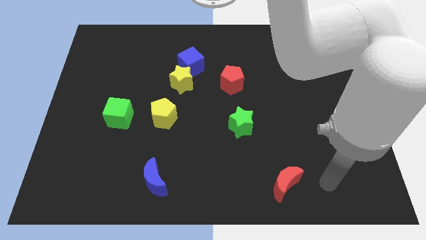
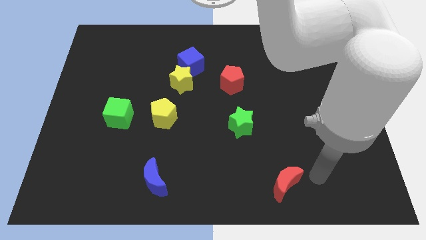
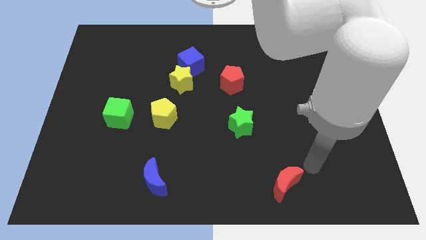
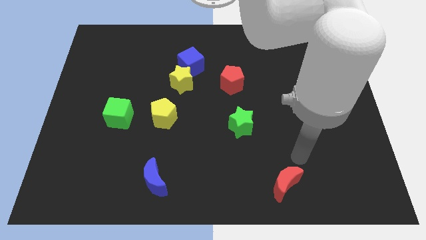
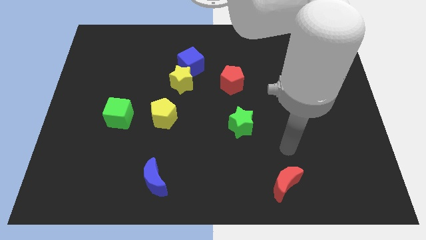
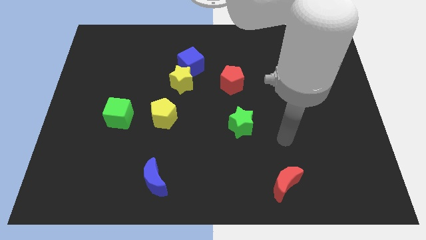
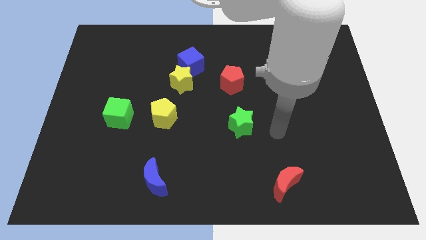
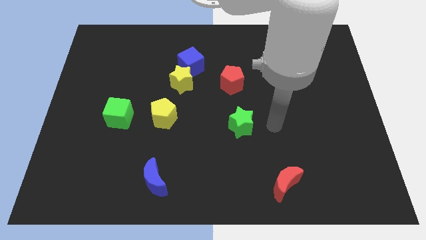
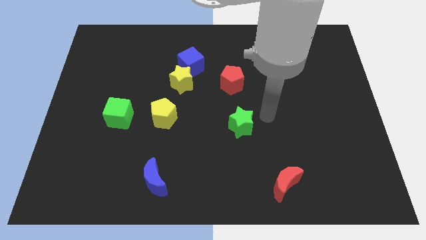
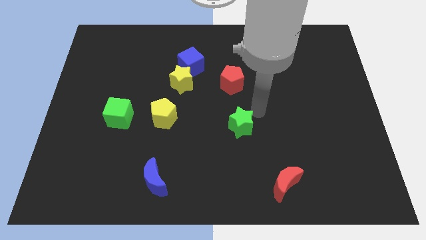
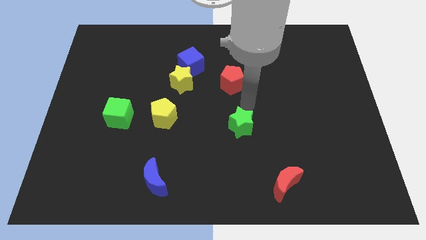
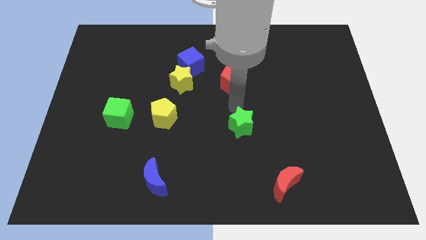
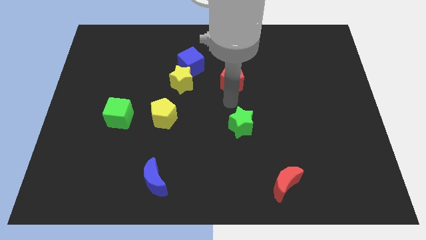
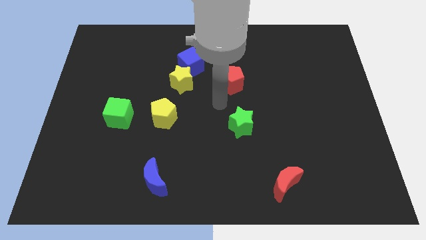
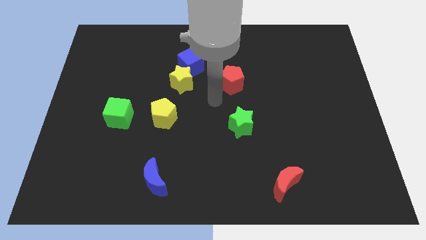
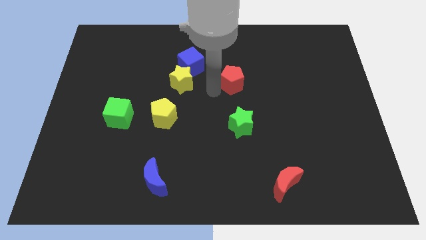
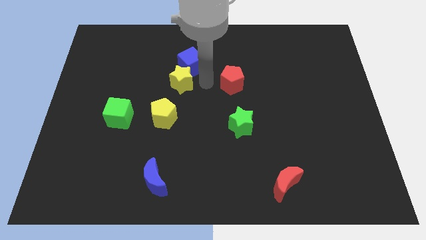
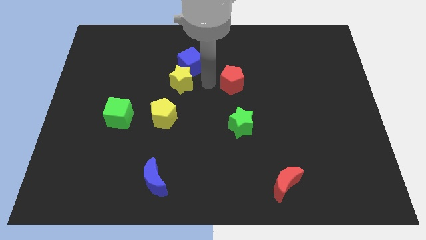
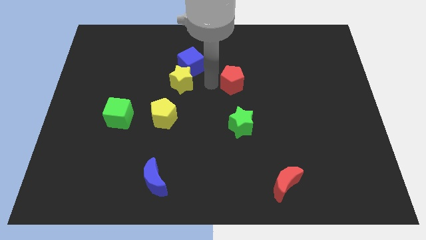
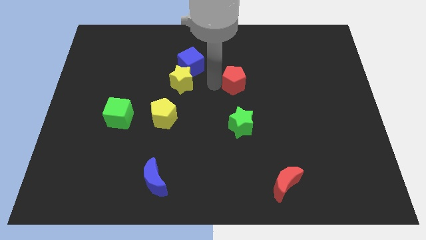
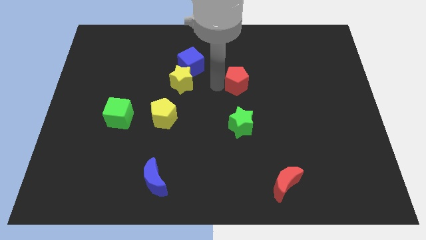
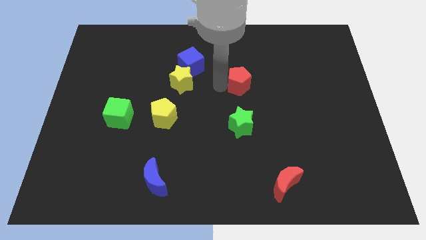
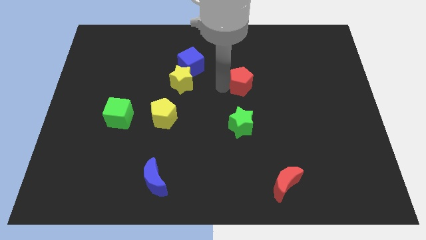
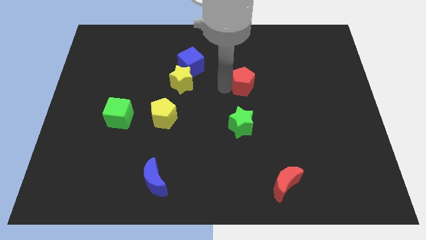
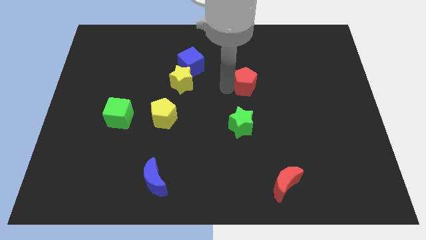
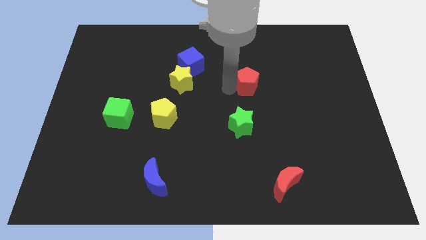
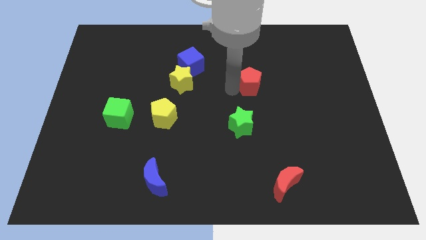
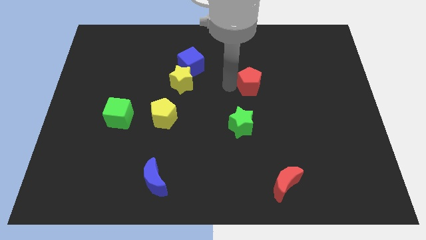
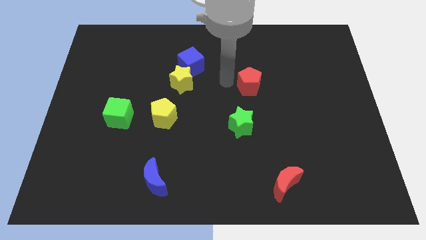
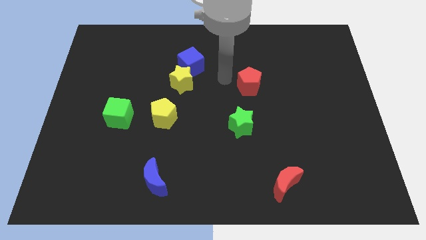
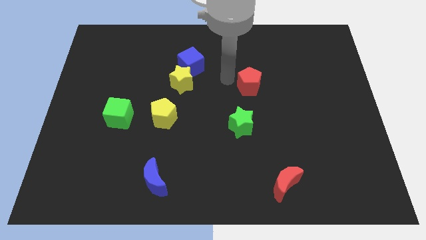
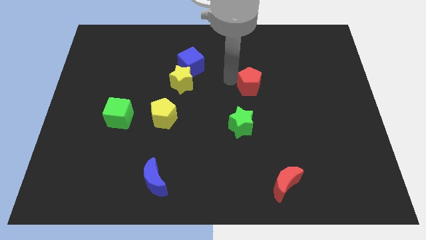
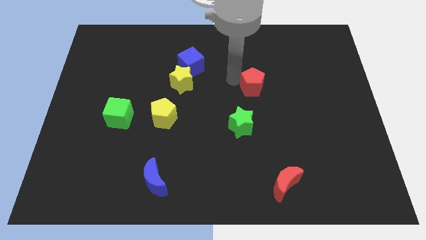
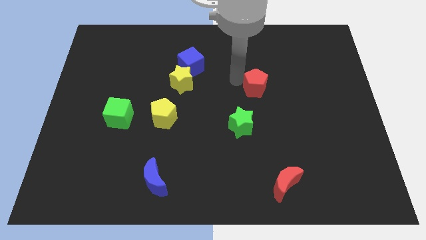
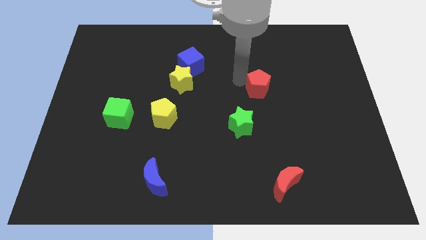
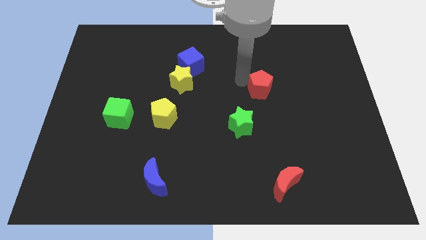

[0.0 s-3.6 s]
move the red pentagon right a bit

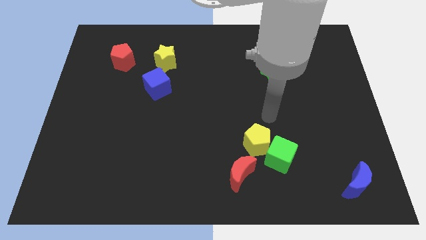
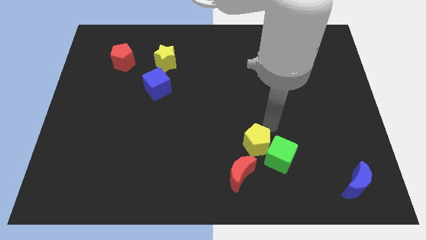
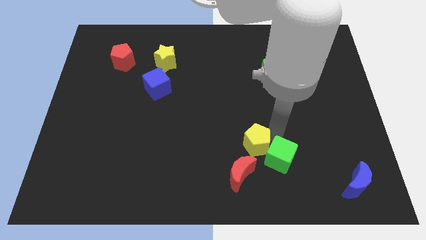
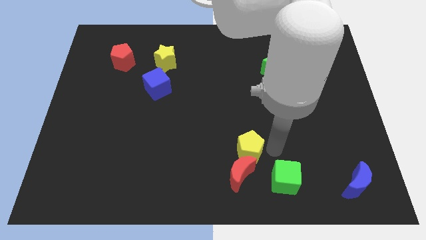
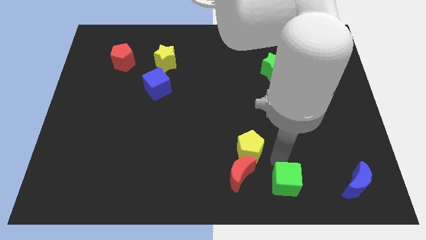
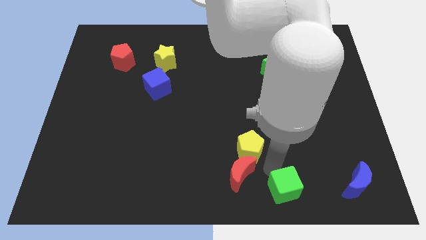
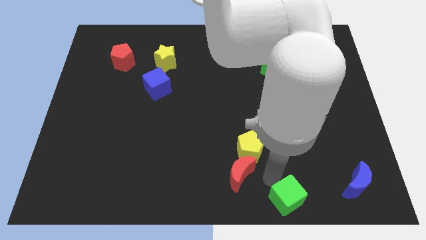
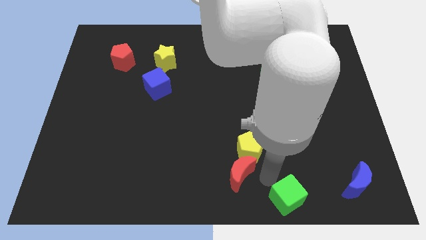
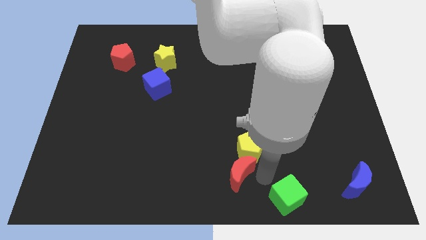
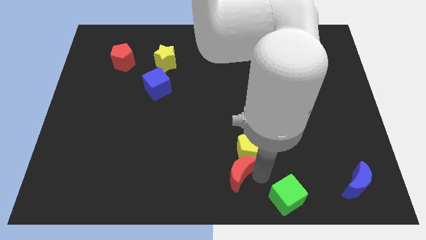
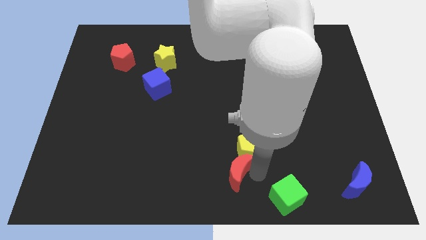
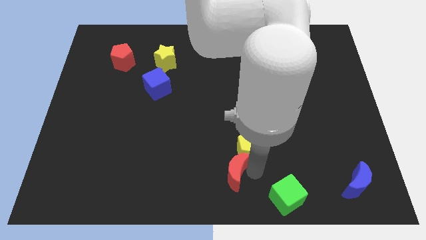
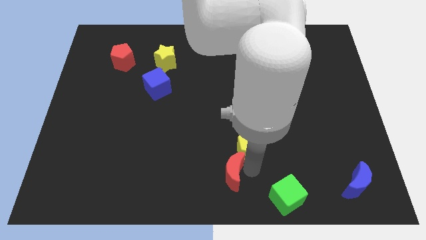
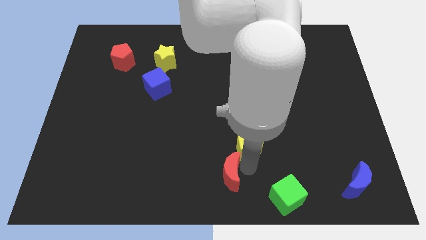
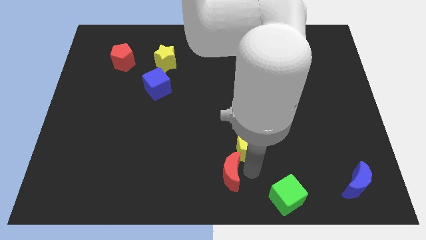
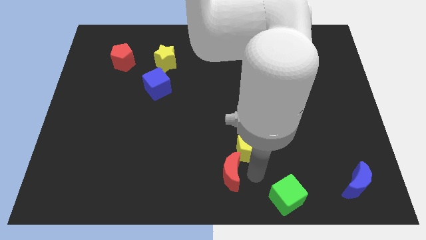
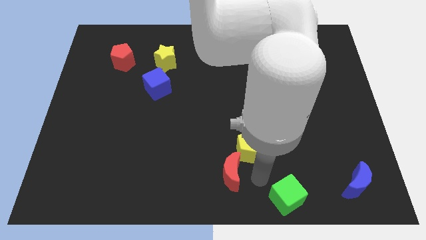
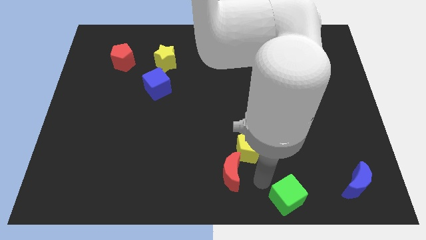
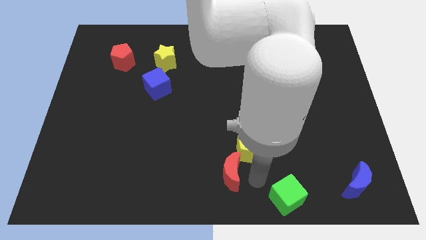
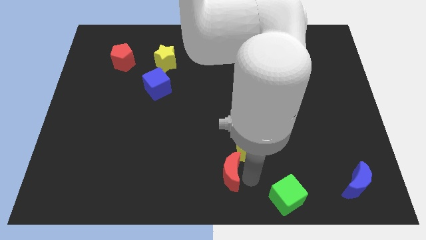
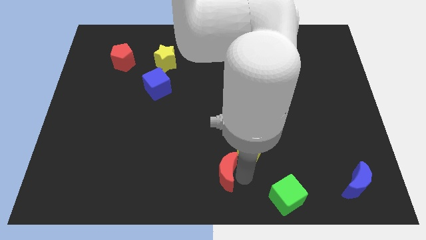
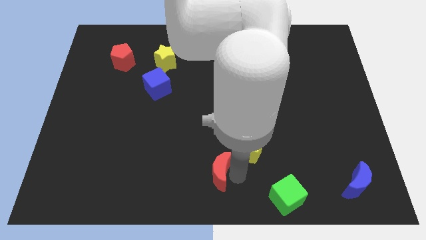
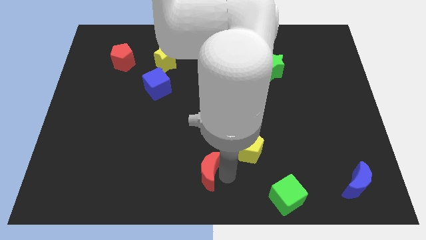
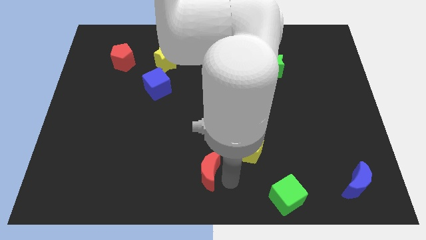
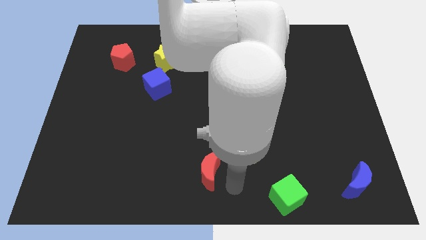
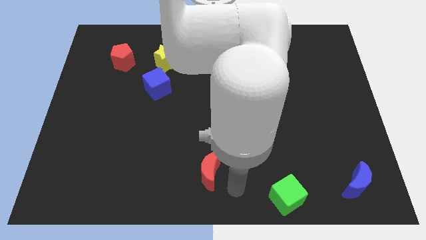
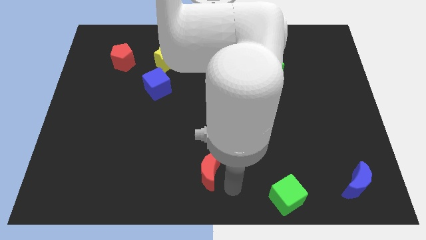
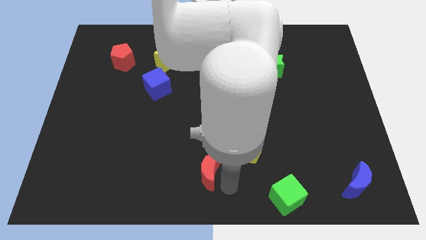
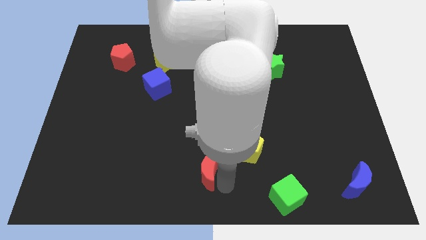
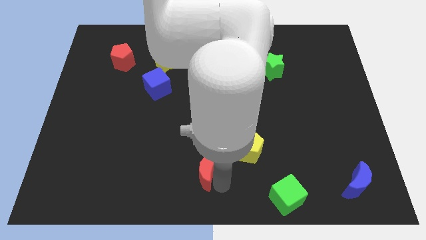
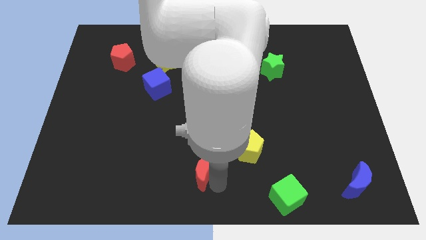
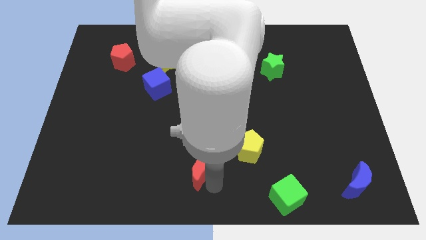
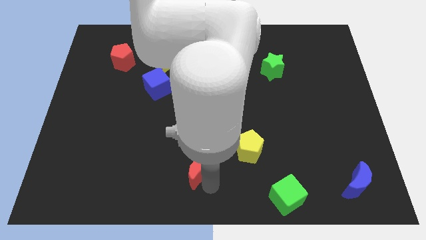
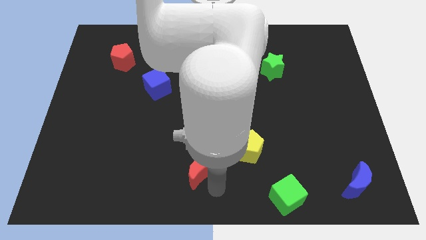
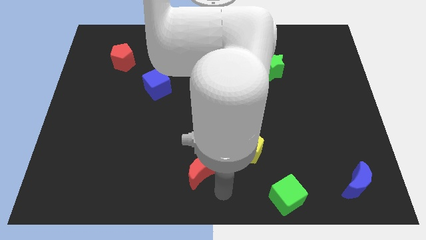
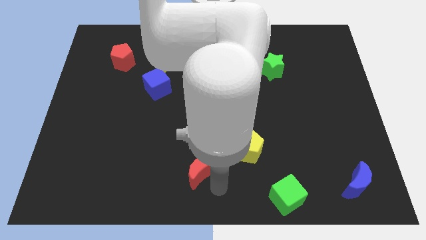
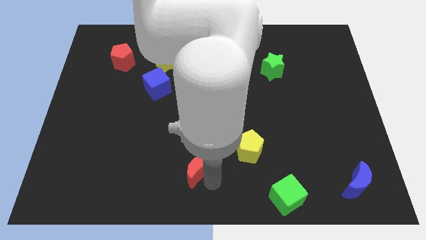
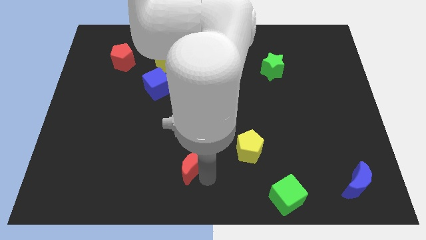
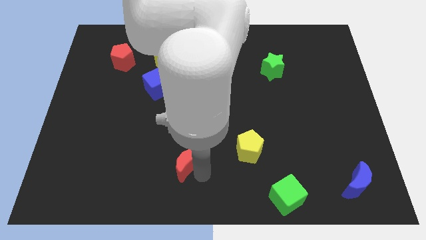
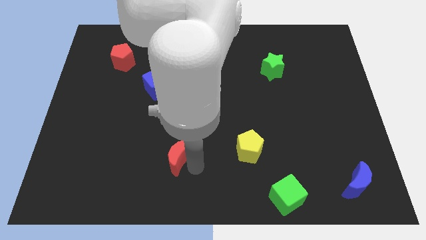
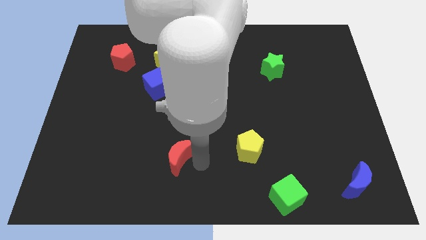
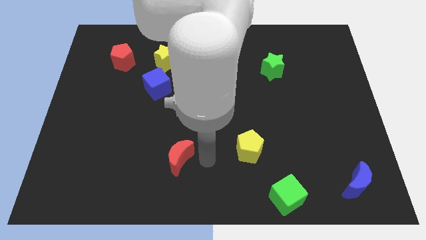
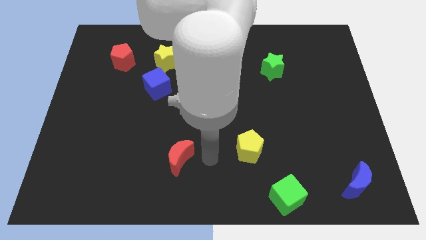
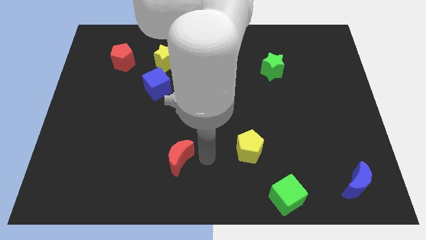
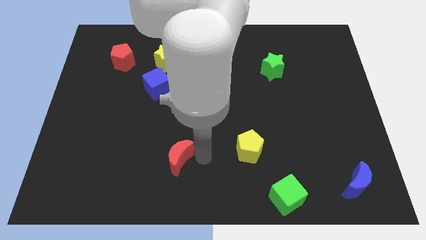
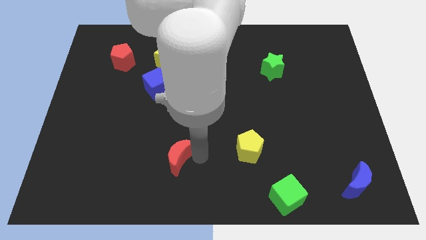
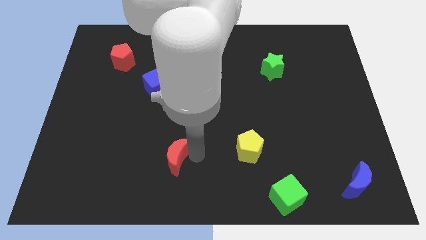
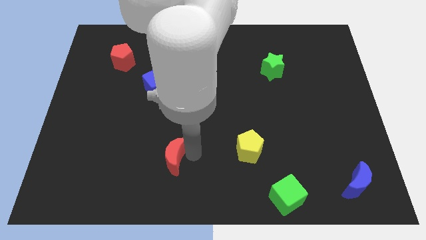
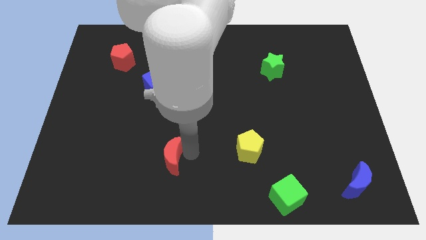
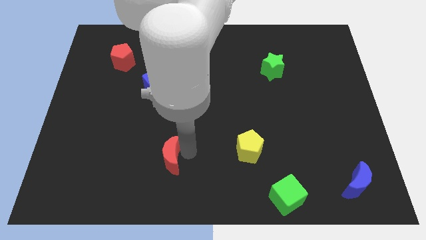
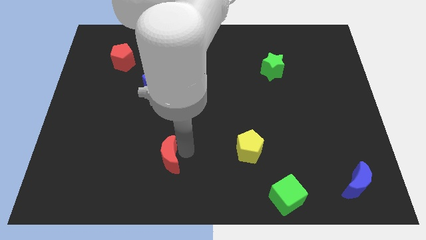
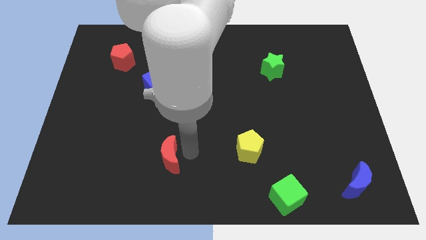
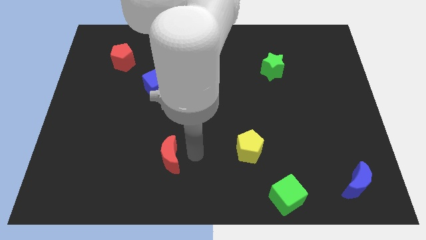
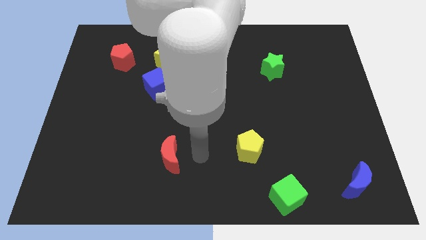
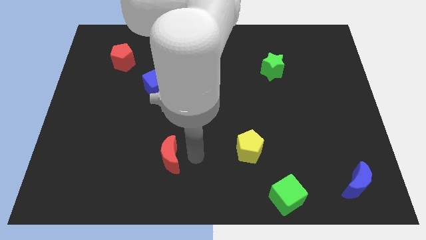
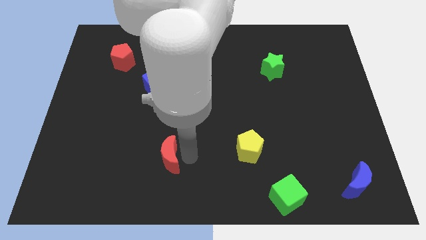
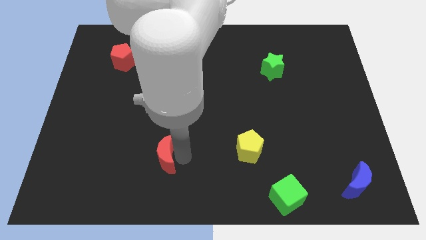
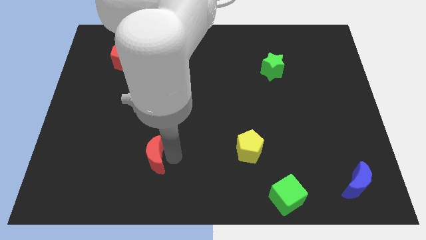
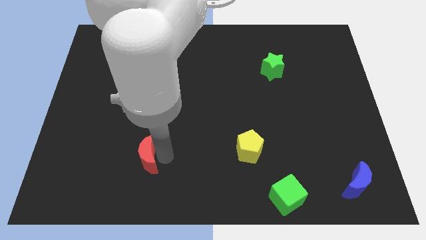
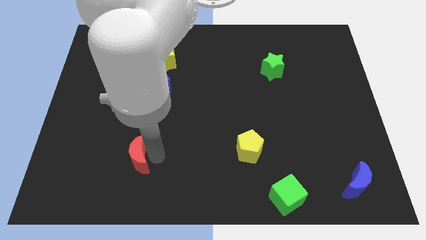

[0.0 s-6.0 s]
move the red moon to the left
